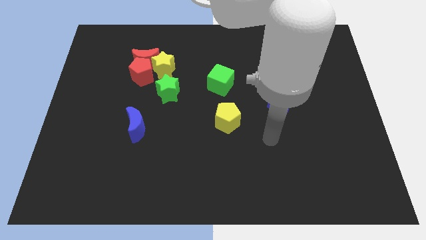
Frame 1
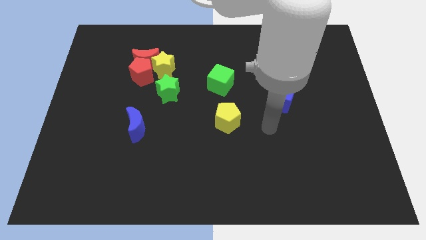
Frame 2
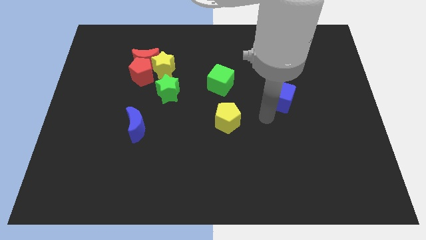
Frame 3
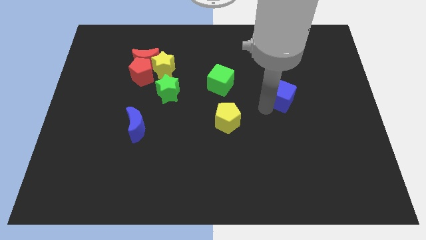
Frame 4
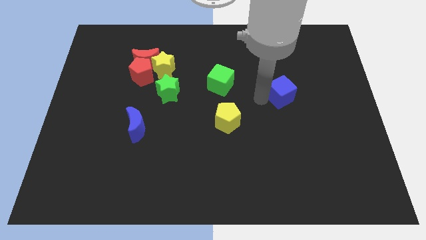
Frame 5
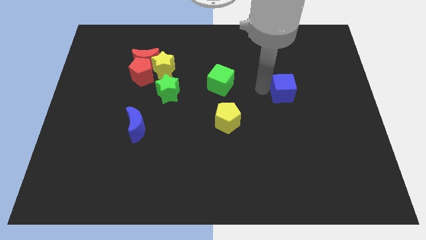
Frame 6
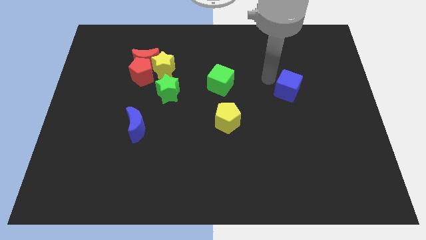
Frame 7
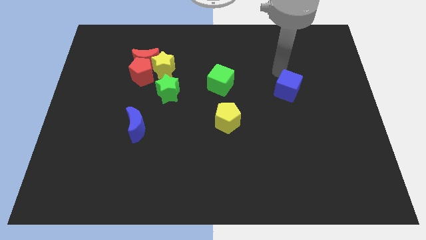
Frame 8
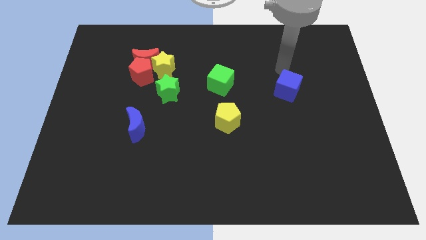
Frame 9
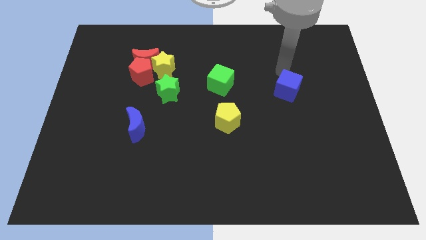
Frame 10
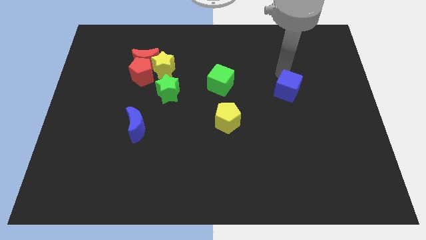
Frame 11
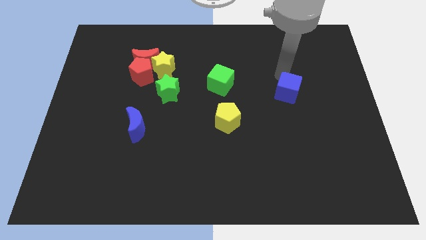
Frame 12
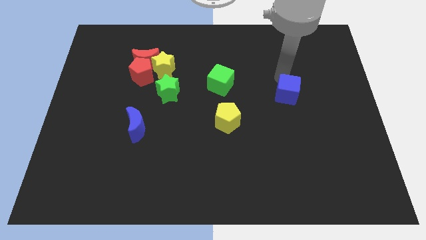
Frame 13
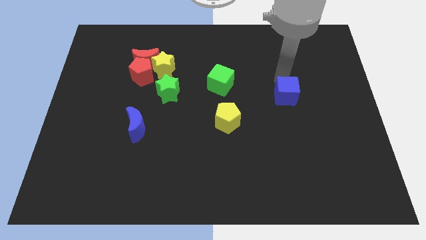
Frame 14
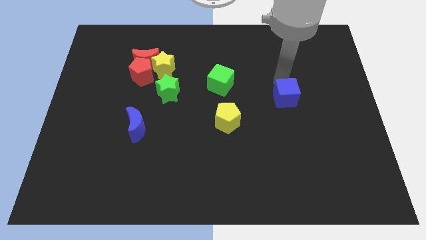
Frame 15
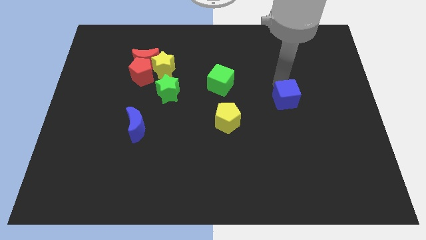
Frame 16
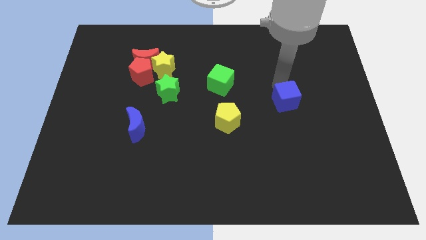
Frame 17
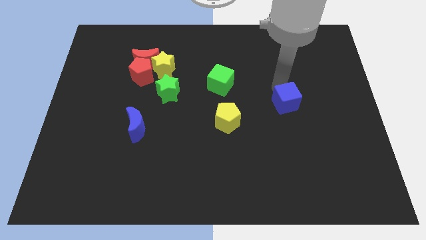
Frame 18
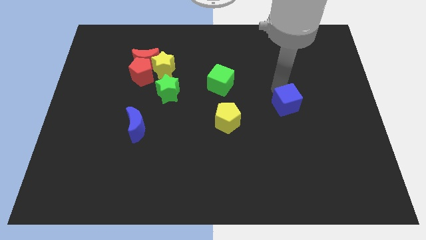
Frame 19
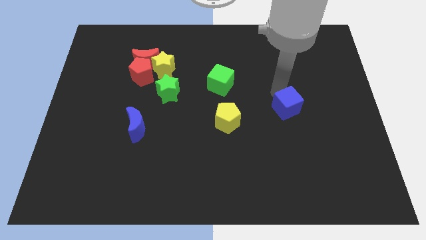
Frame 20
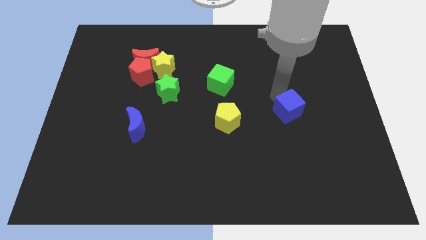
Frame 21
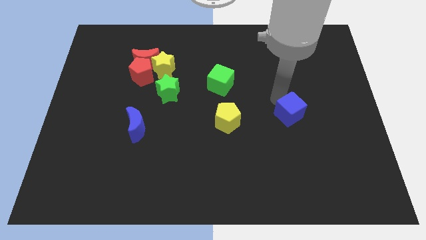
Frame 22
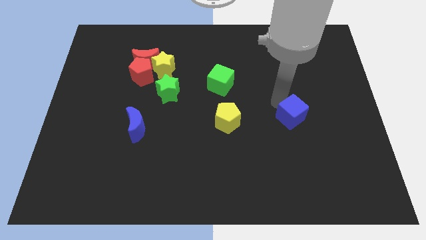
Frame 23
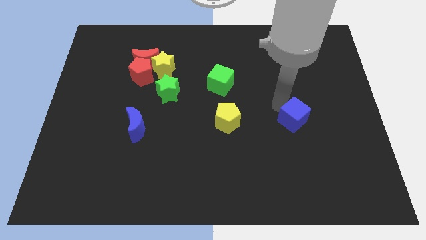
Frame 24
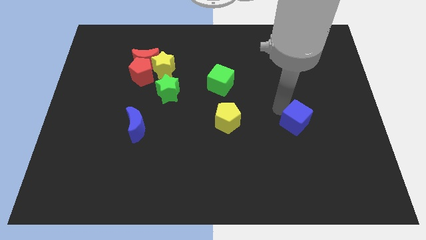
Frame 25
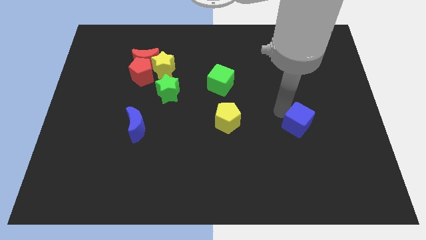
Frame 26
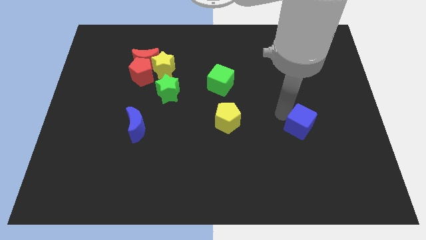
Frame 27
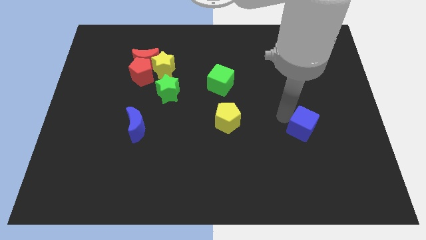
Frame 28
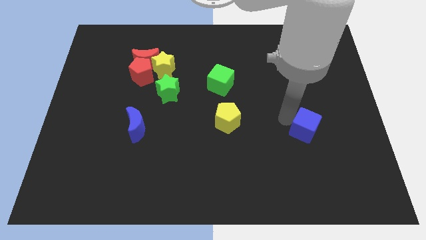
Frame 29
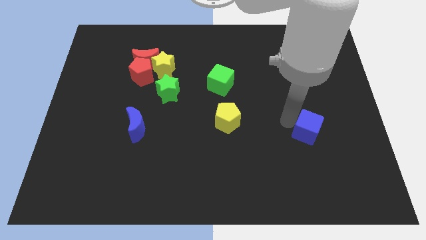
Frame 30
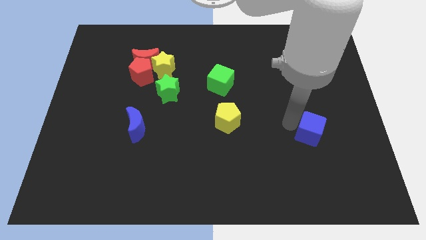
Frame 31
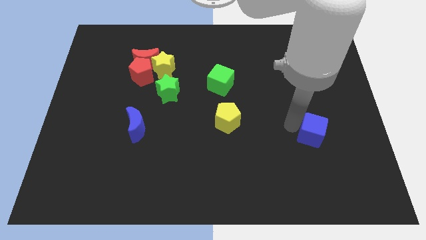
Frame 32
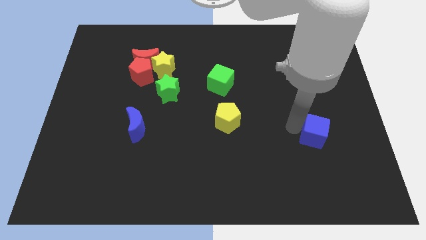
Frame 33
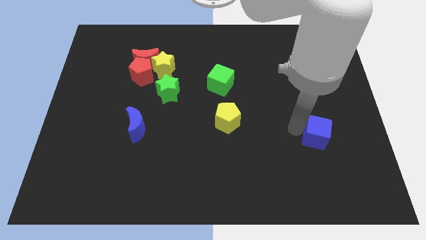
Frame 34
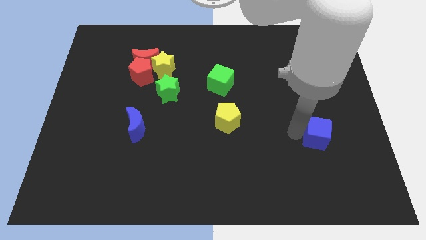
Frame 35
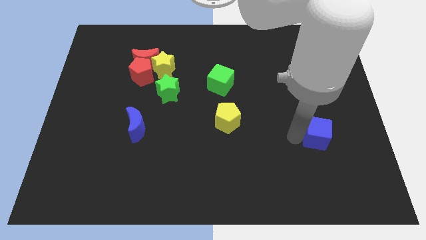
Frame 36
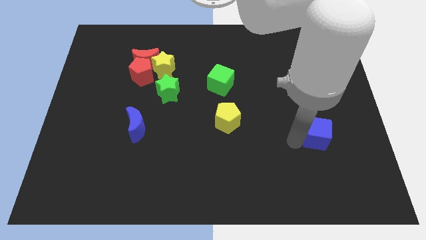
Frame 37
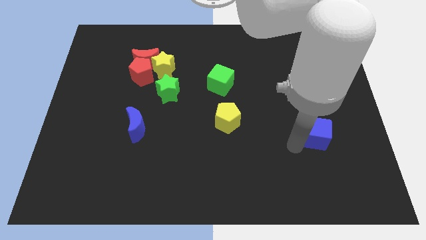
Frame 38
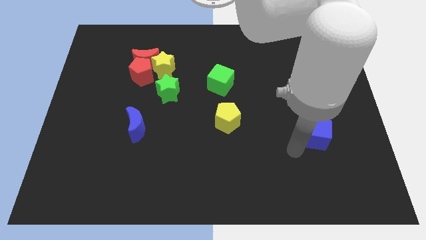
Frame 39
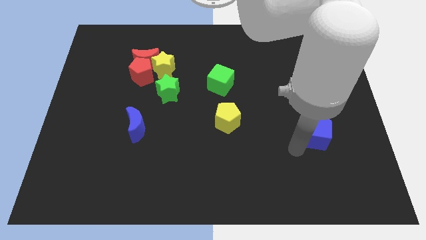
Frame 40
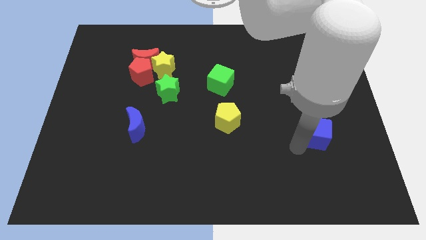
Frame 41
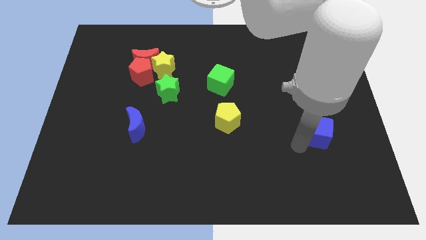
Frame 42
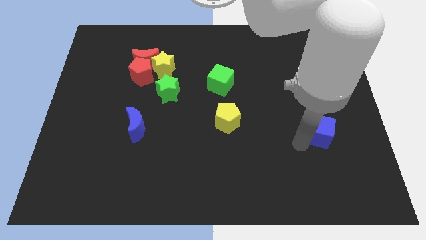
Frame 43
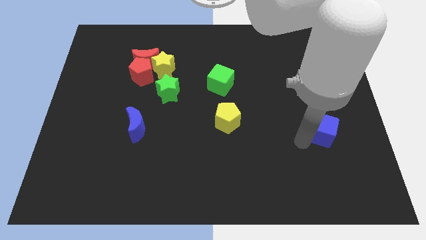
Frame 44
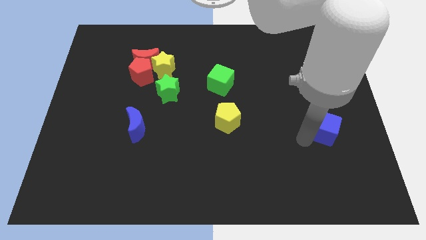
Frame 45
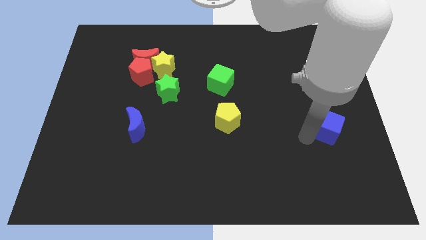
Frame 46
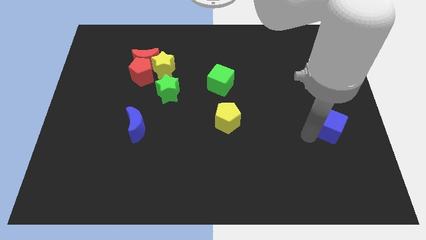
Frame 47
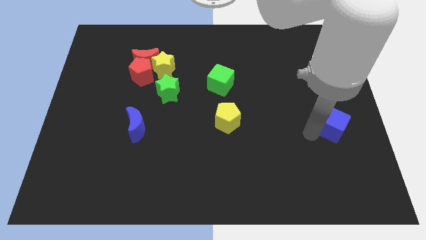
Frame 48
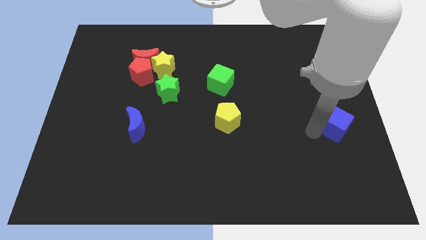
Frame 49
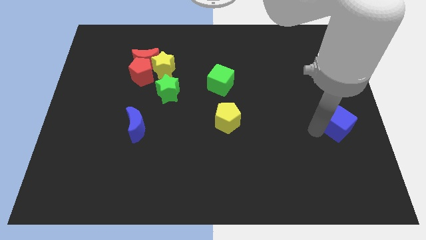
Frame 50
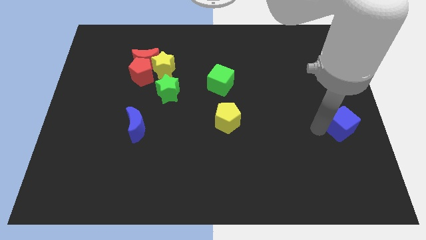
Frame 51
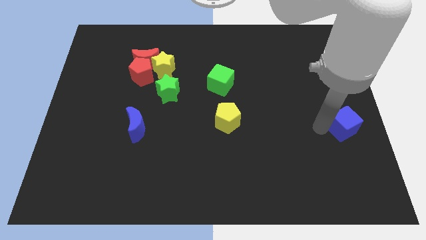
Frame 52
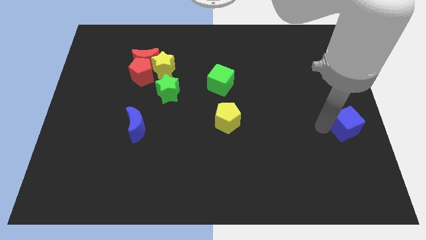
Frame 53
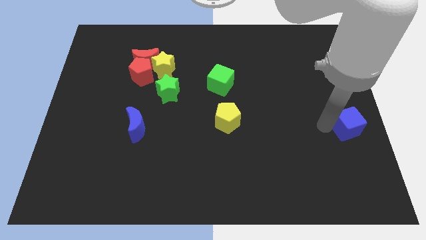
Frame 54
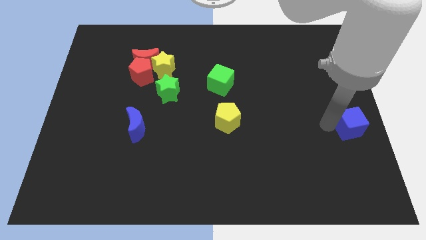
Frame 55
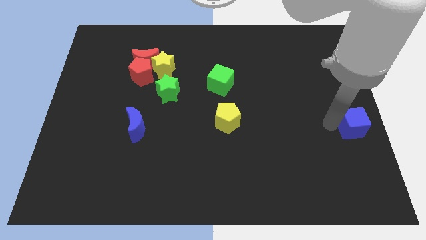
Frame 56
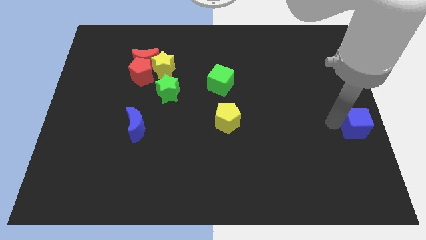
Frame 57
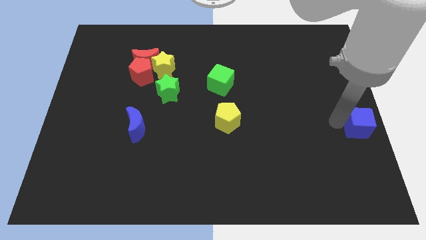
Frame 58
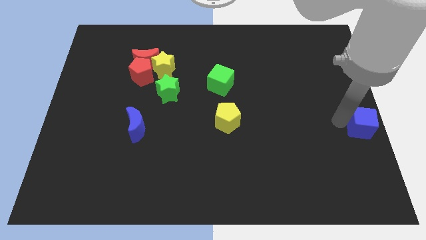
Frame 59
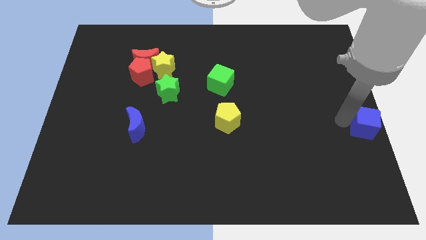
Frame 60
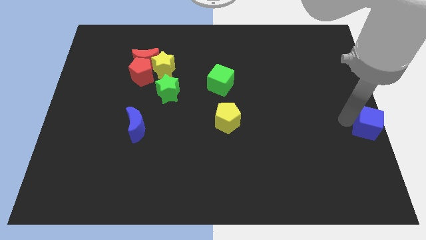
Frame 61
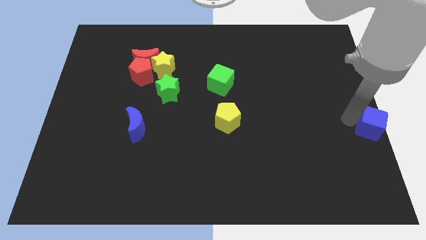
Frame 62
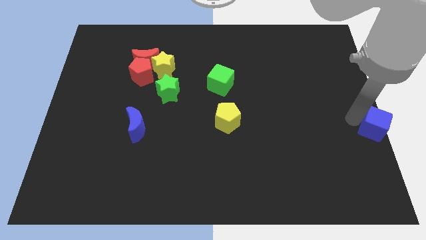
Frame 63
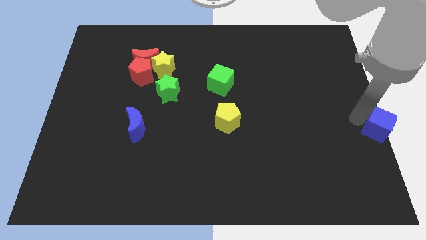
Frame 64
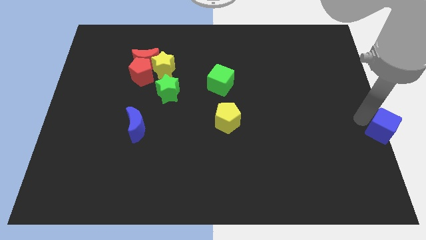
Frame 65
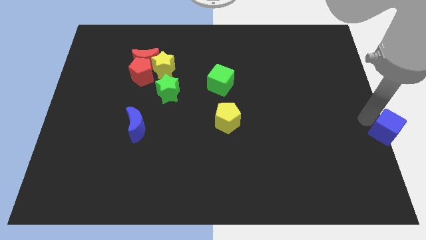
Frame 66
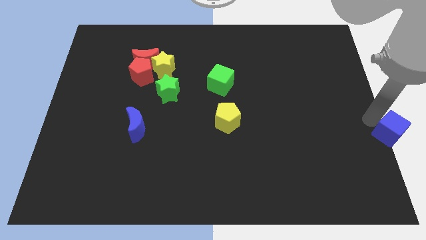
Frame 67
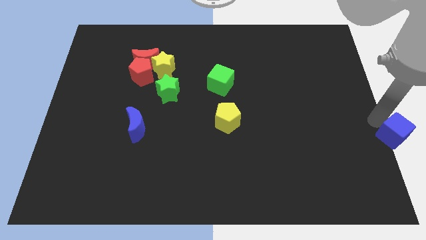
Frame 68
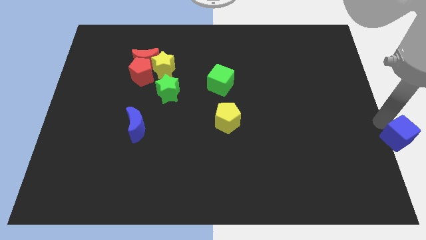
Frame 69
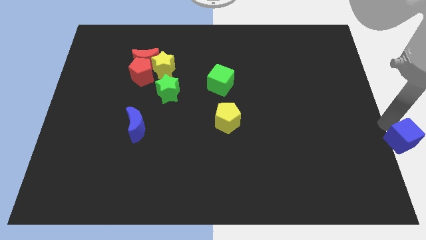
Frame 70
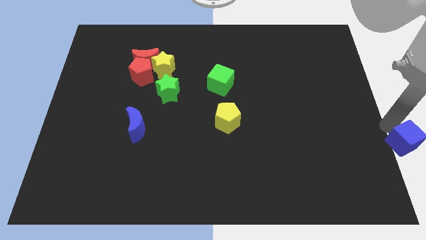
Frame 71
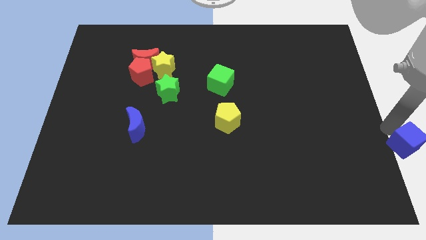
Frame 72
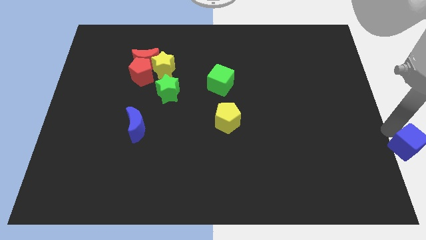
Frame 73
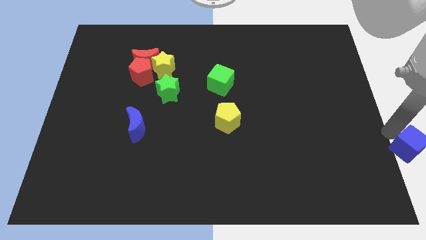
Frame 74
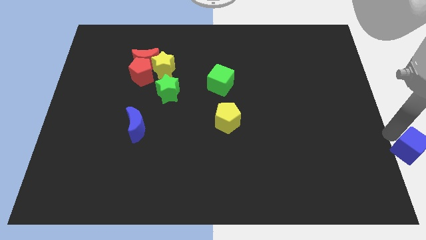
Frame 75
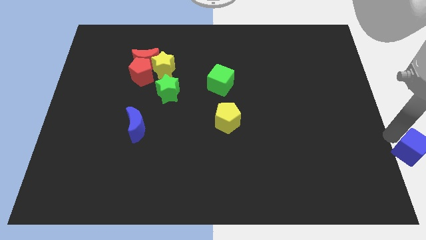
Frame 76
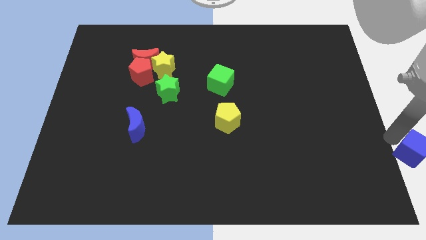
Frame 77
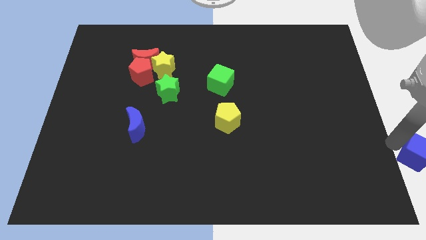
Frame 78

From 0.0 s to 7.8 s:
move the blue cube to the bottom right
